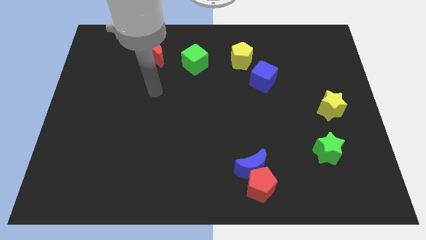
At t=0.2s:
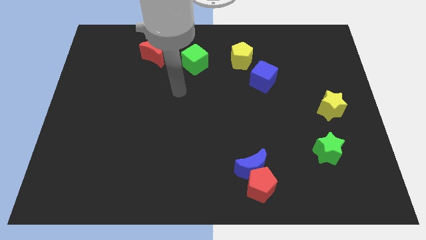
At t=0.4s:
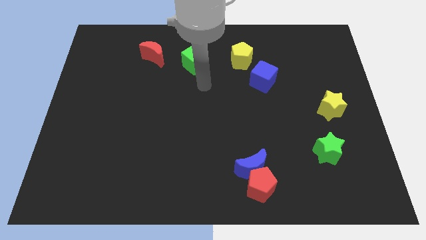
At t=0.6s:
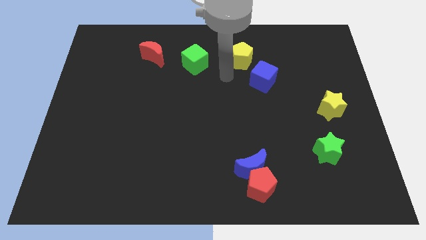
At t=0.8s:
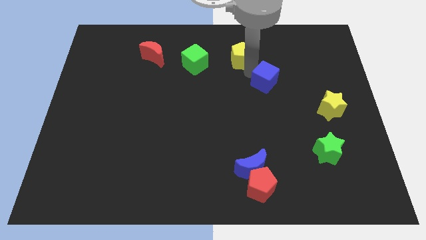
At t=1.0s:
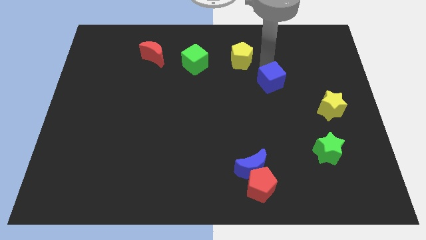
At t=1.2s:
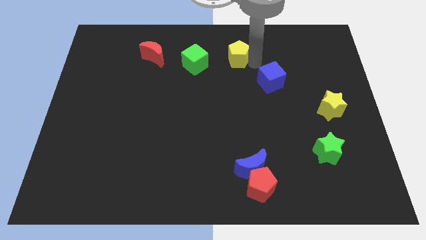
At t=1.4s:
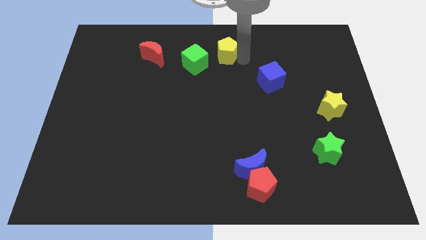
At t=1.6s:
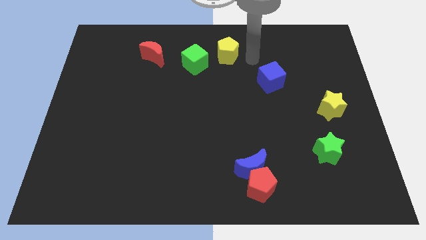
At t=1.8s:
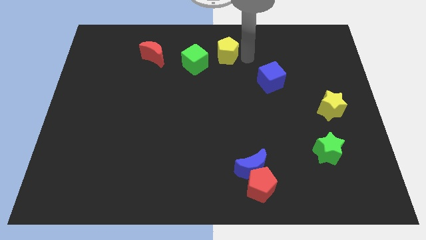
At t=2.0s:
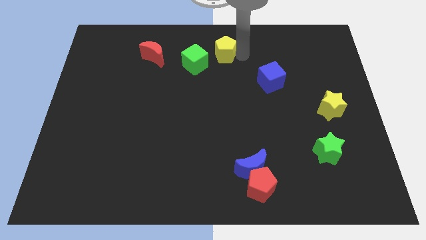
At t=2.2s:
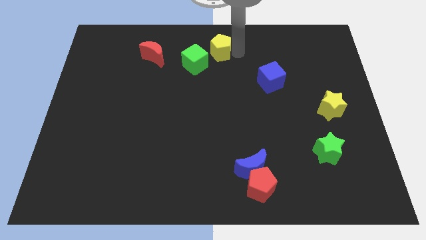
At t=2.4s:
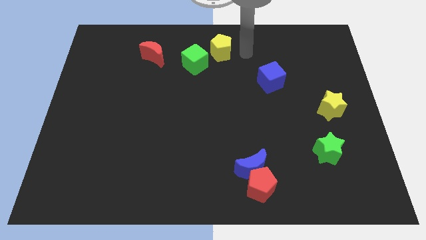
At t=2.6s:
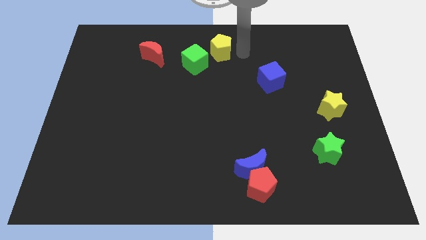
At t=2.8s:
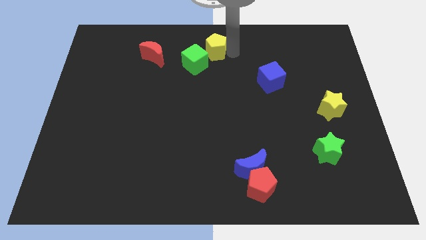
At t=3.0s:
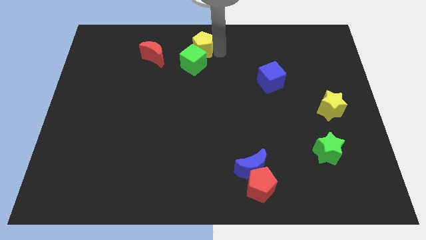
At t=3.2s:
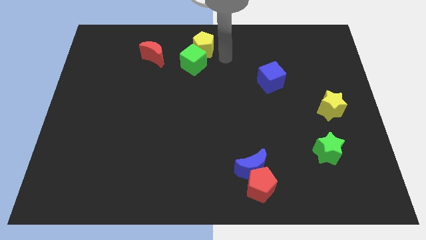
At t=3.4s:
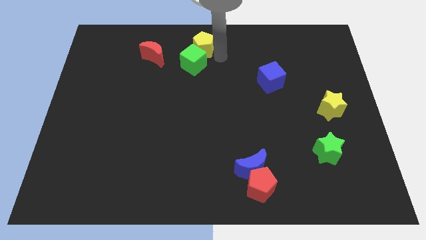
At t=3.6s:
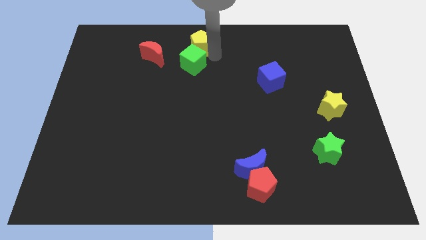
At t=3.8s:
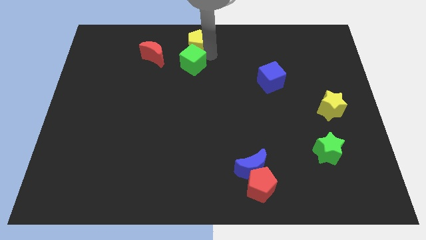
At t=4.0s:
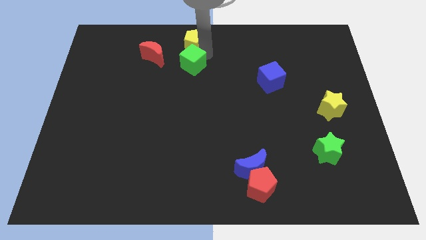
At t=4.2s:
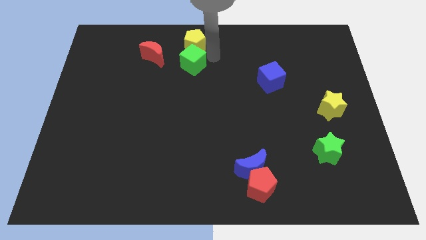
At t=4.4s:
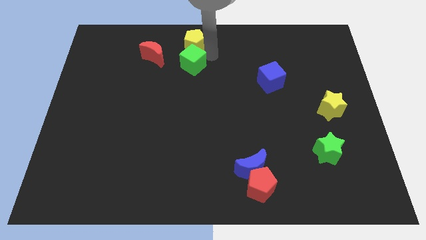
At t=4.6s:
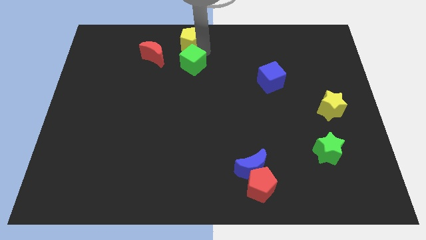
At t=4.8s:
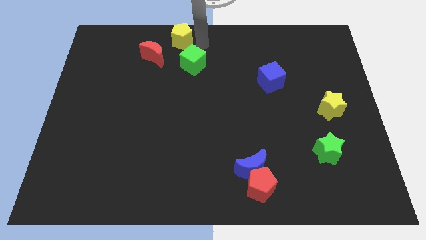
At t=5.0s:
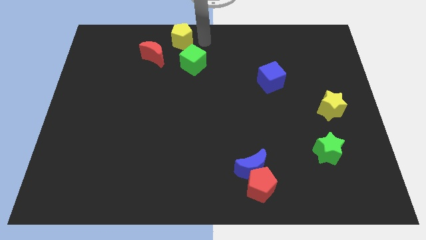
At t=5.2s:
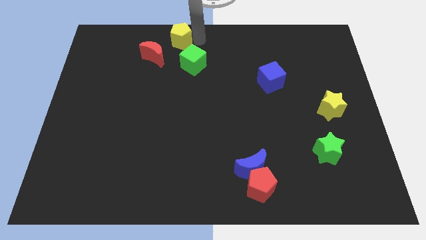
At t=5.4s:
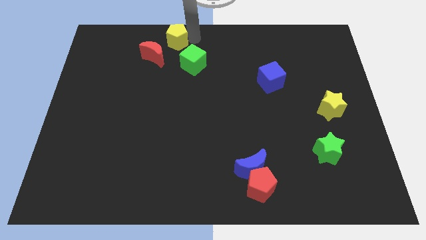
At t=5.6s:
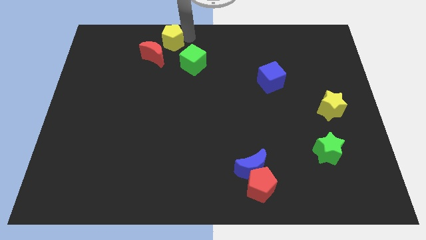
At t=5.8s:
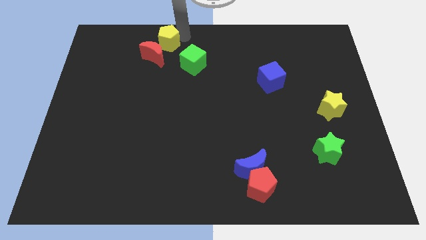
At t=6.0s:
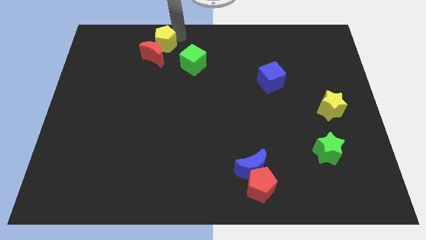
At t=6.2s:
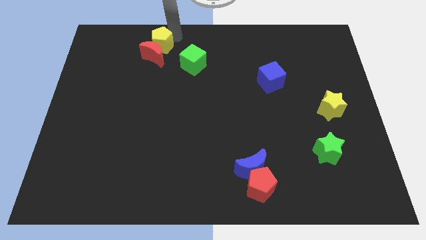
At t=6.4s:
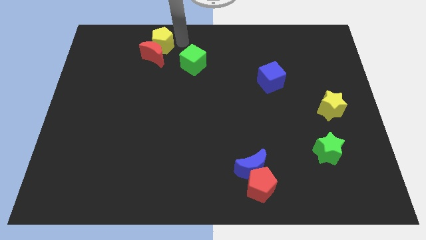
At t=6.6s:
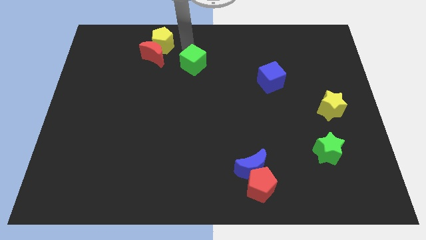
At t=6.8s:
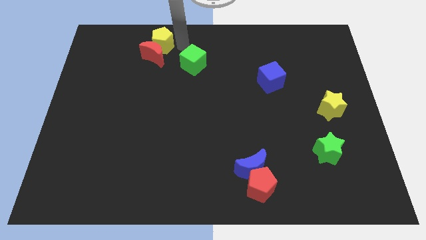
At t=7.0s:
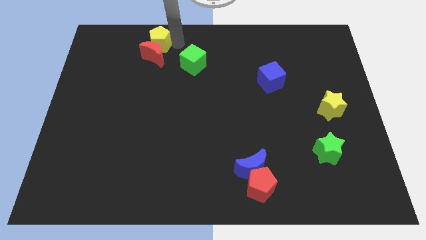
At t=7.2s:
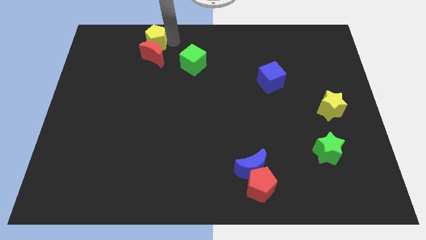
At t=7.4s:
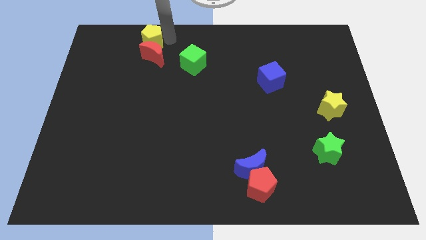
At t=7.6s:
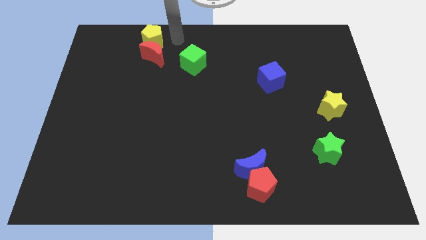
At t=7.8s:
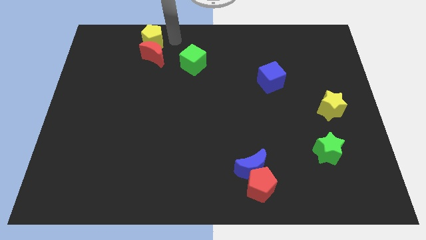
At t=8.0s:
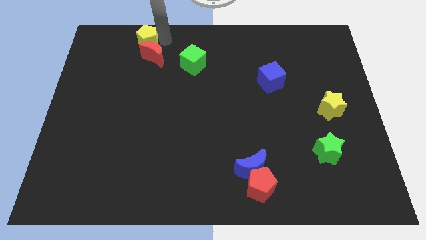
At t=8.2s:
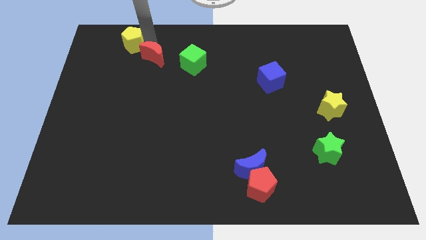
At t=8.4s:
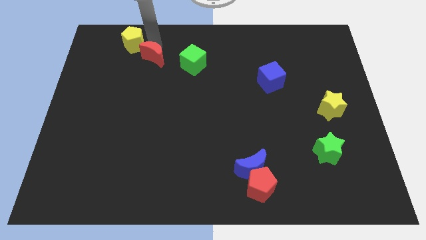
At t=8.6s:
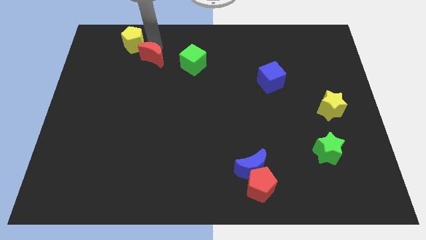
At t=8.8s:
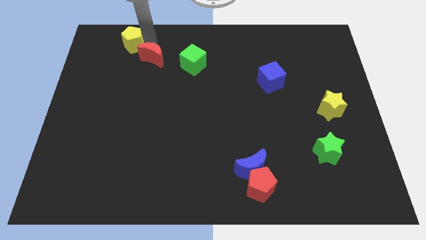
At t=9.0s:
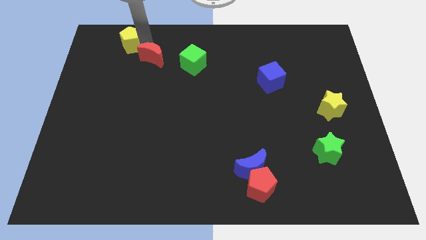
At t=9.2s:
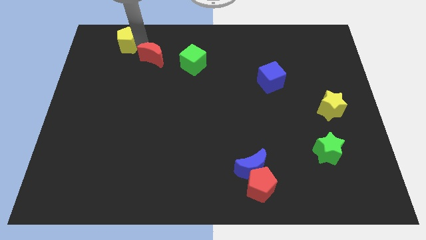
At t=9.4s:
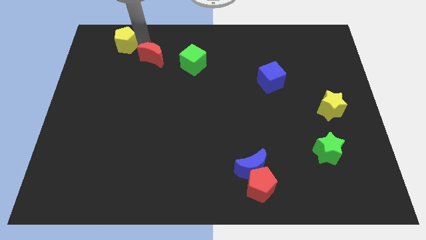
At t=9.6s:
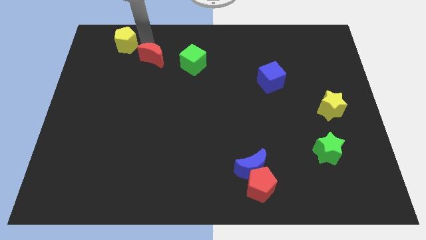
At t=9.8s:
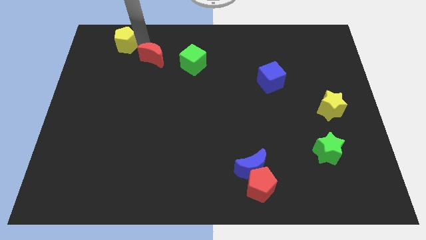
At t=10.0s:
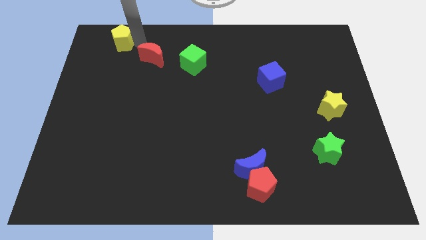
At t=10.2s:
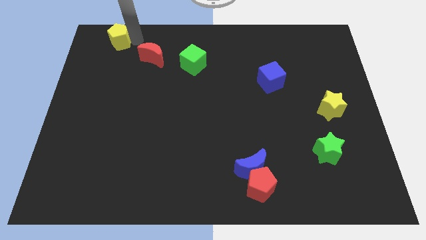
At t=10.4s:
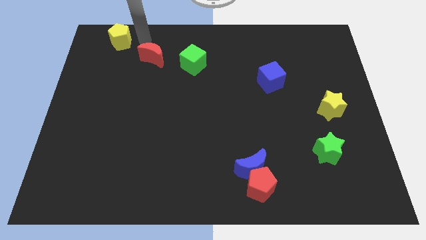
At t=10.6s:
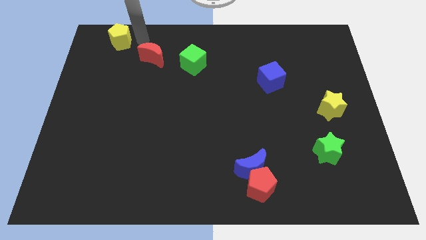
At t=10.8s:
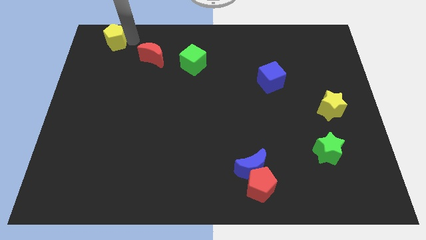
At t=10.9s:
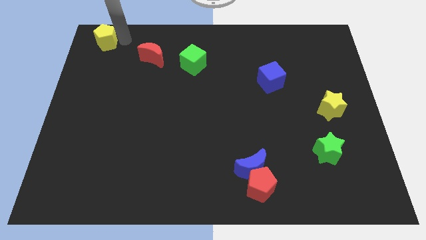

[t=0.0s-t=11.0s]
put the yellow pentagon to the top left
